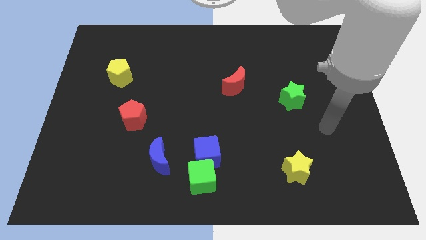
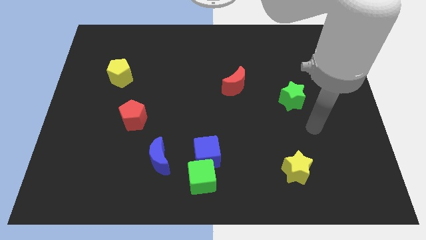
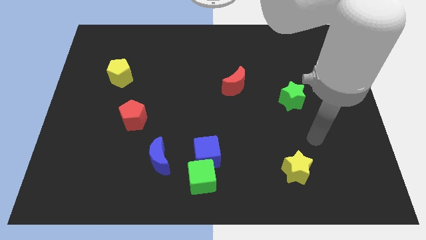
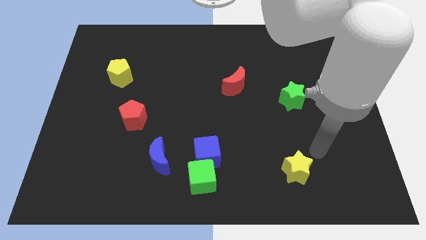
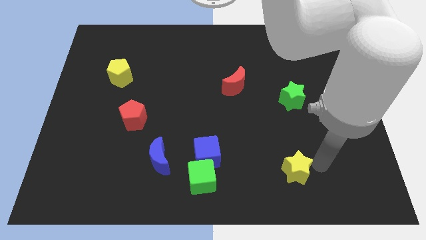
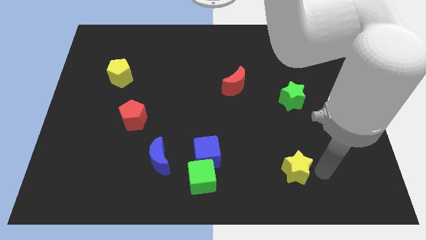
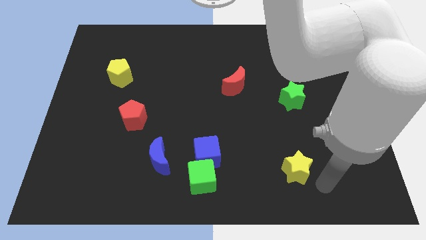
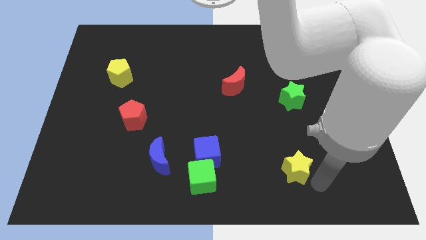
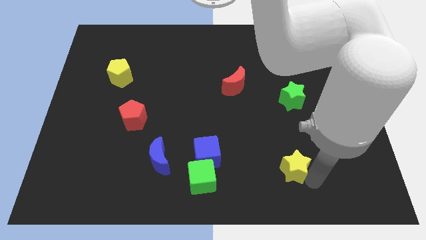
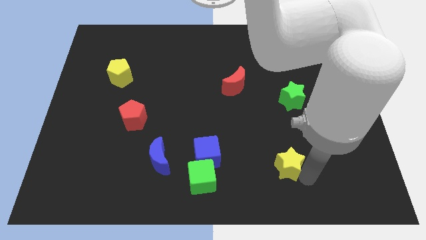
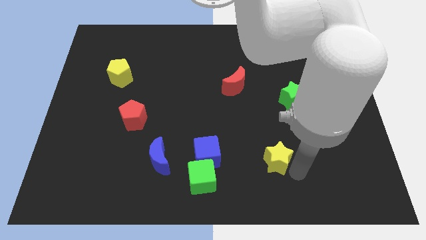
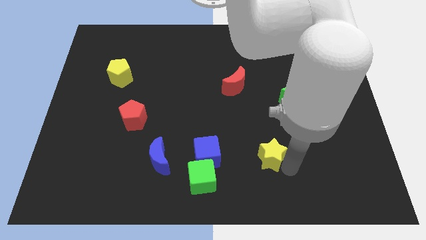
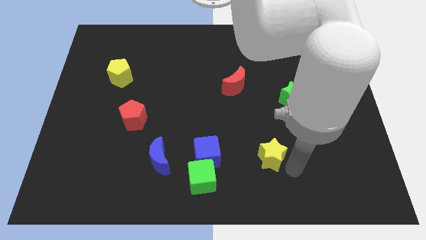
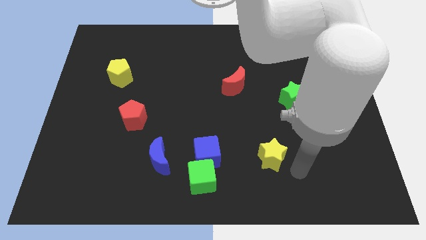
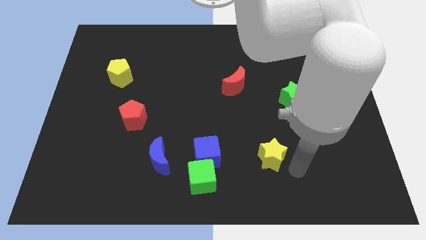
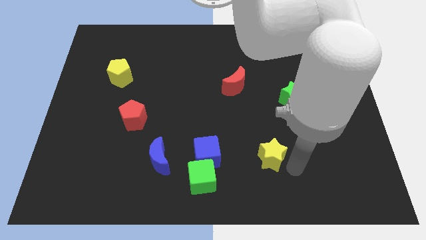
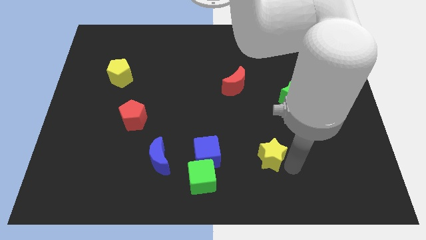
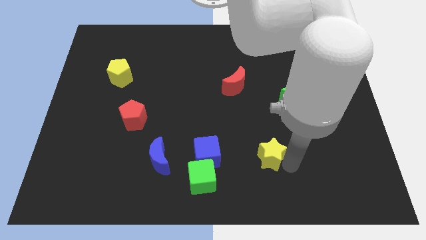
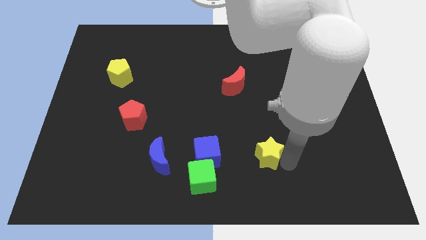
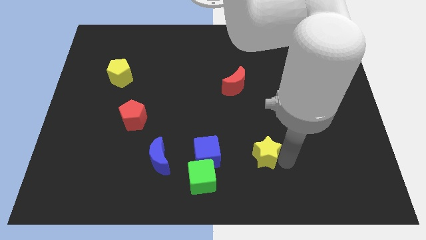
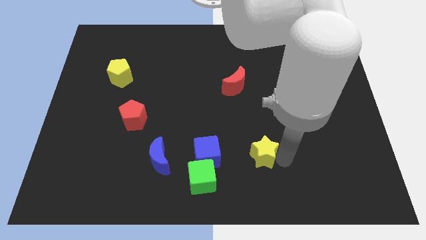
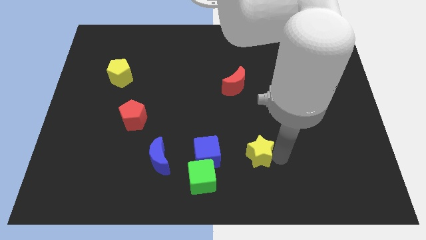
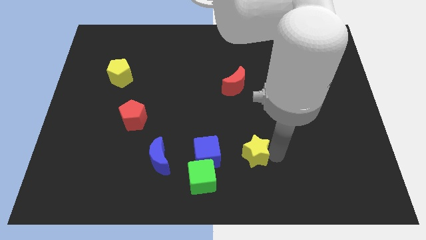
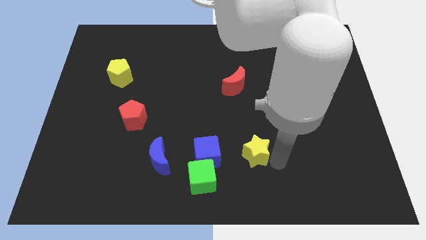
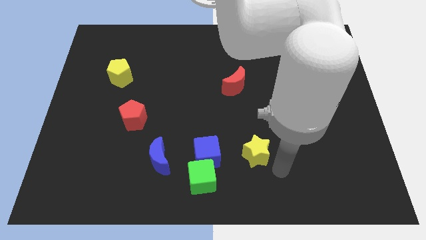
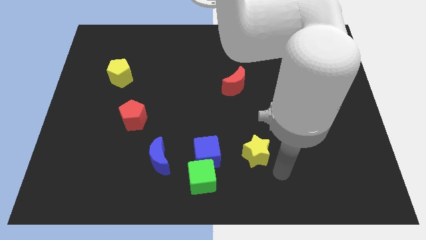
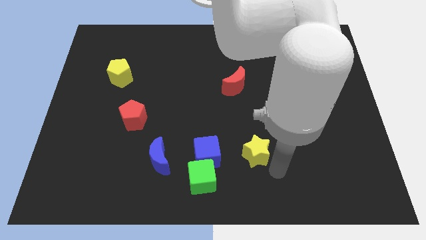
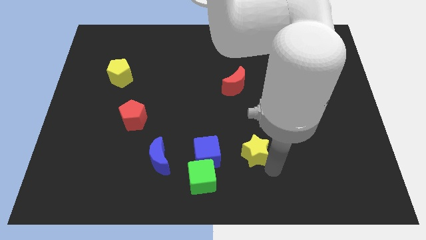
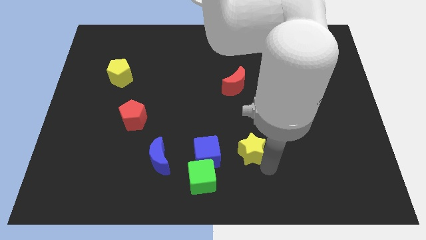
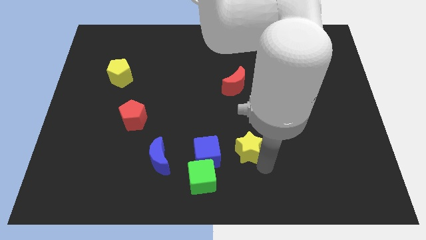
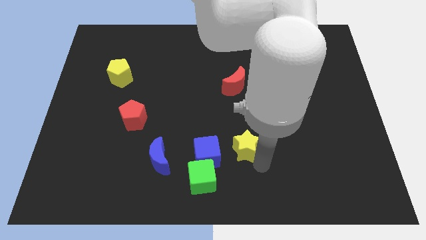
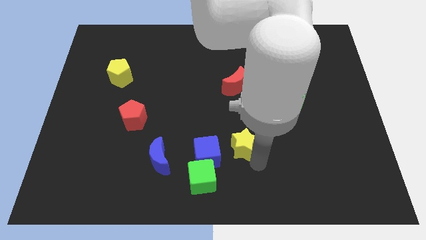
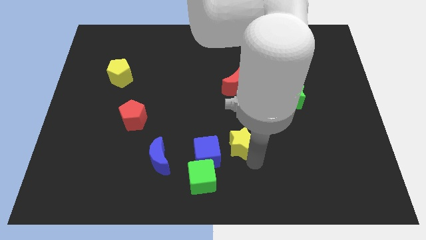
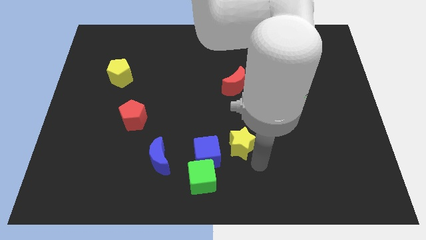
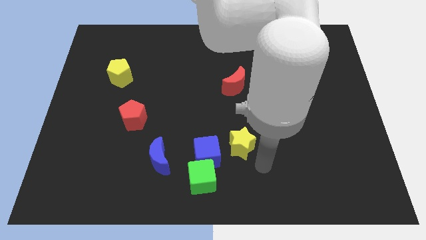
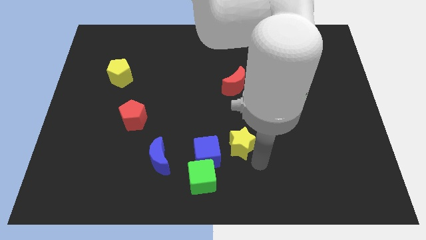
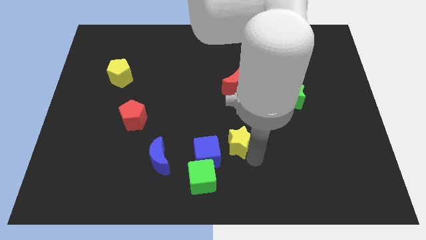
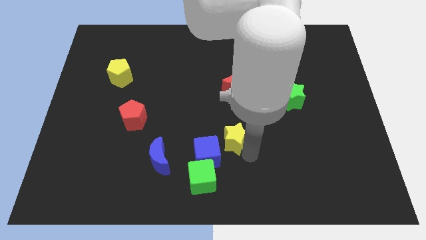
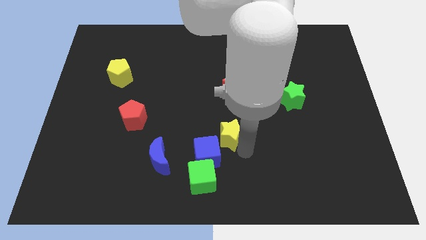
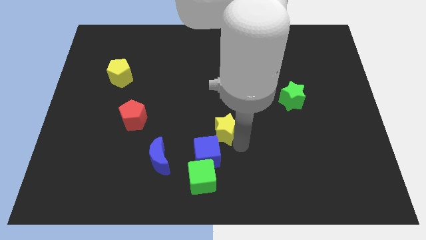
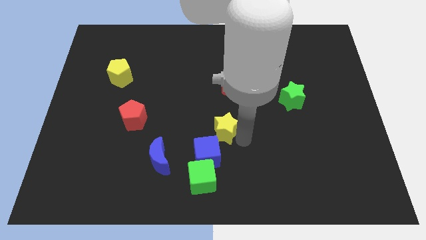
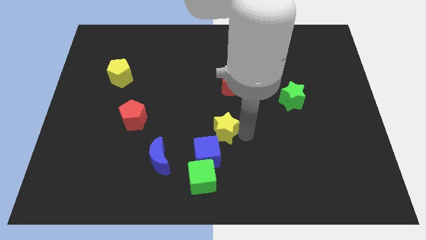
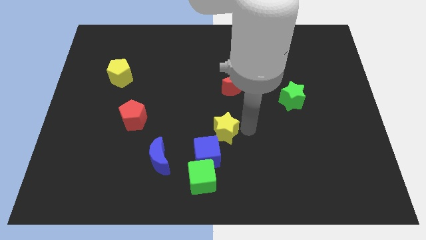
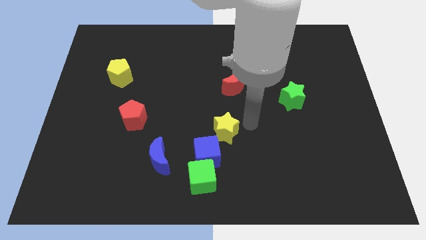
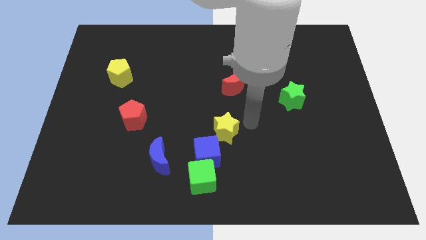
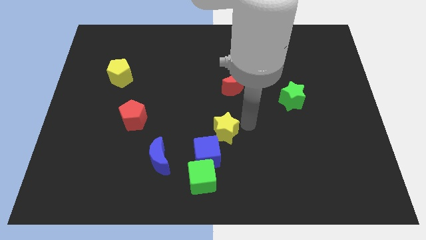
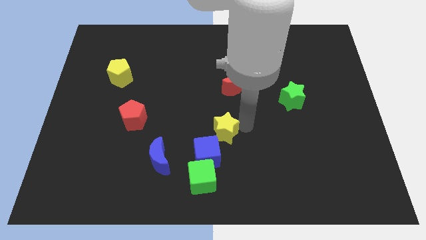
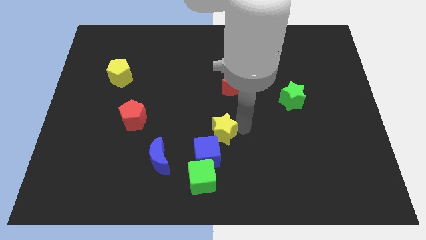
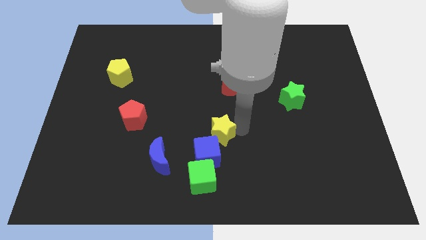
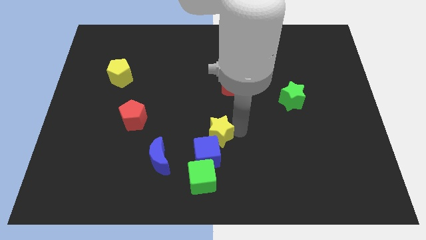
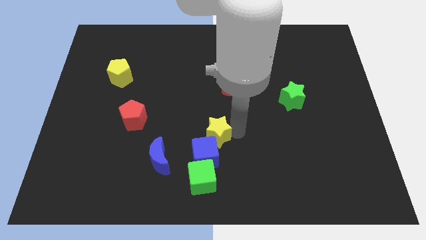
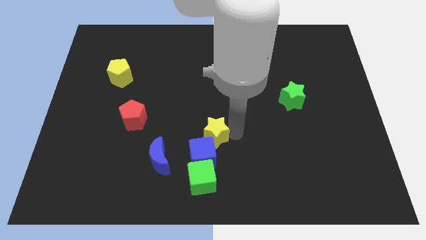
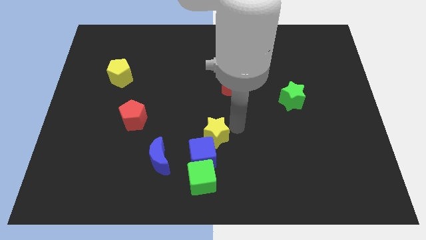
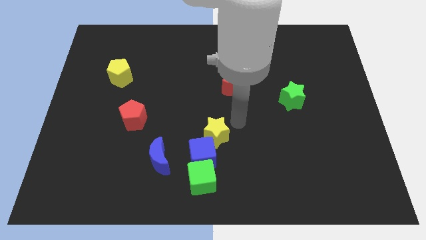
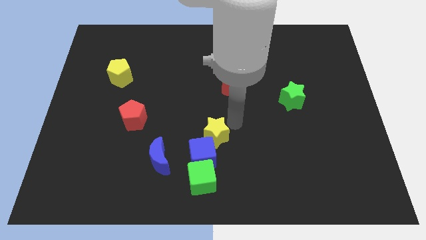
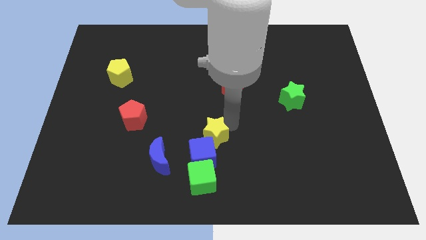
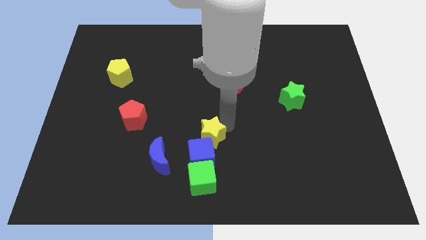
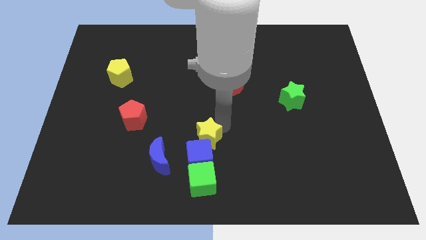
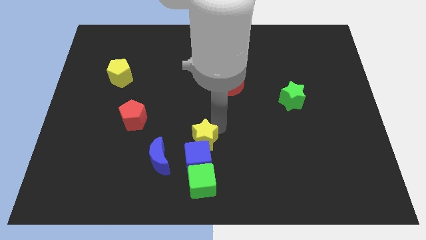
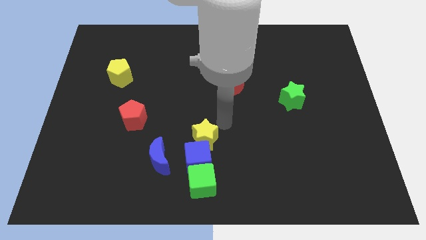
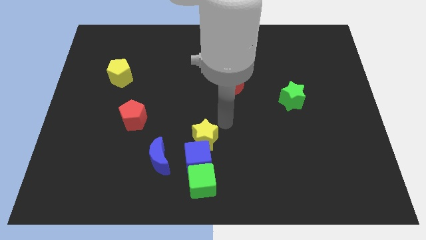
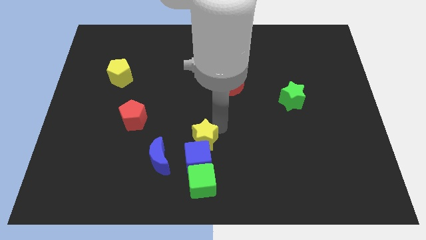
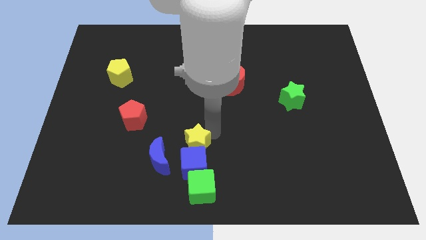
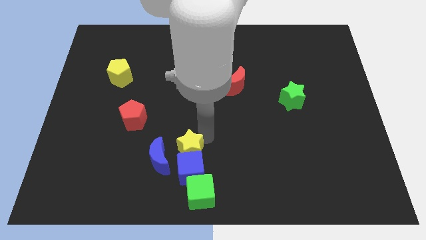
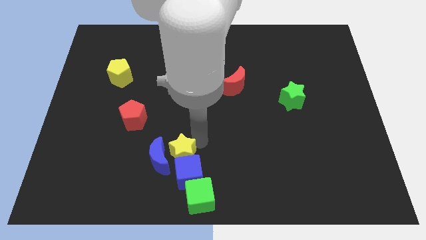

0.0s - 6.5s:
slide the yellow star to the top left of the green cube

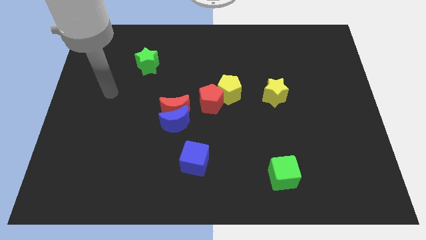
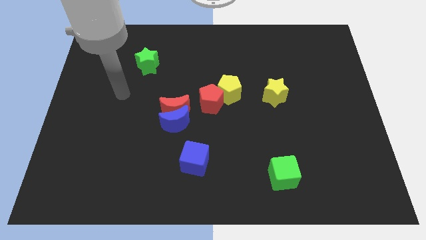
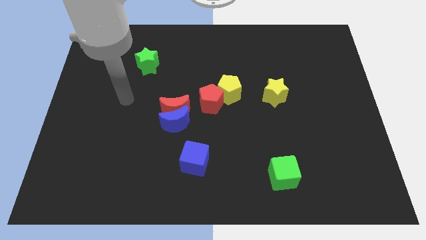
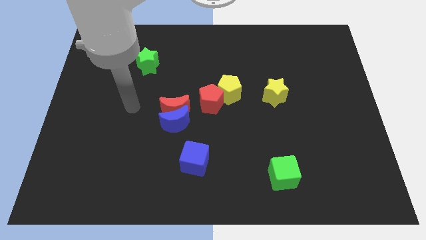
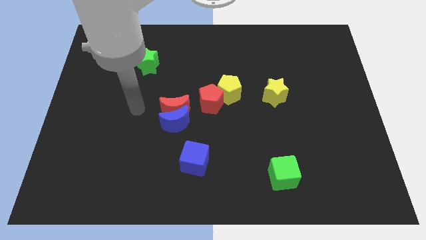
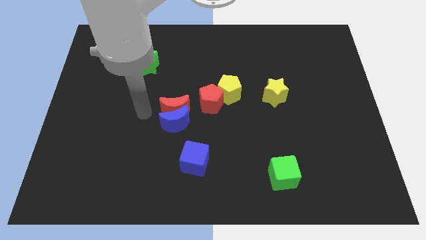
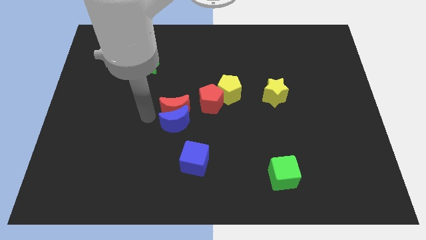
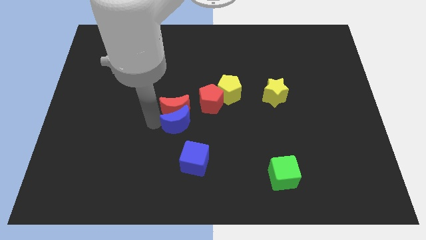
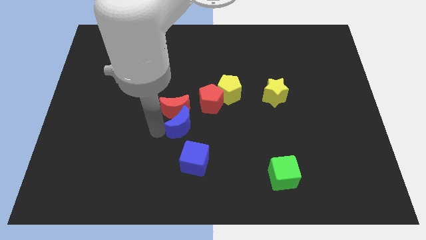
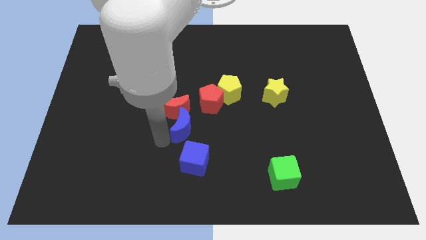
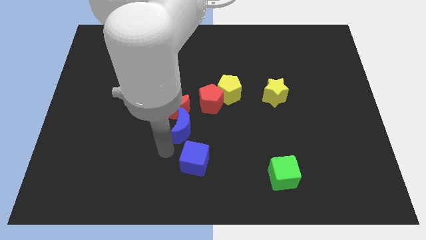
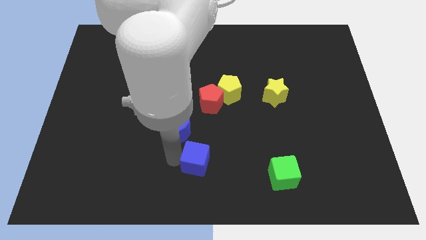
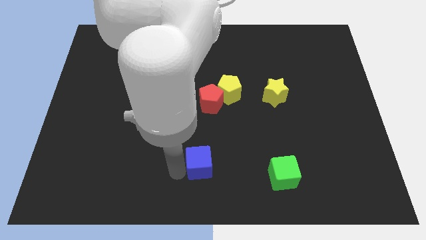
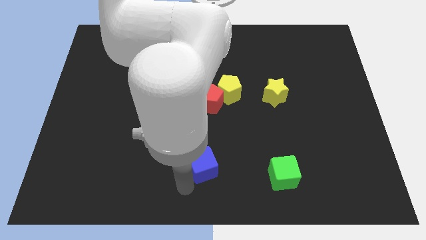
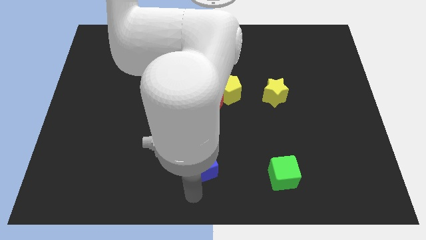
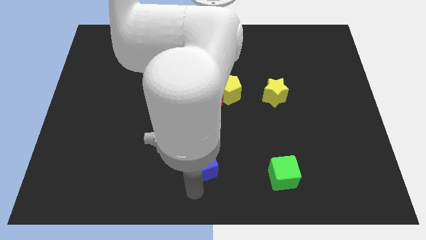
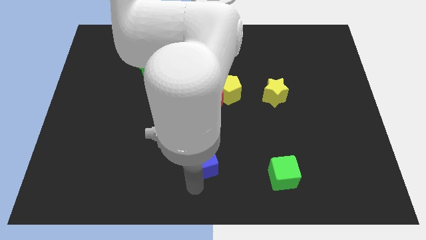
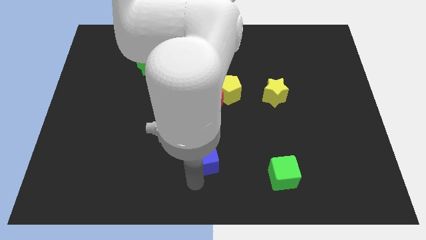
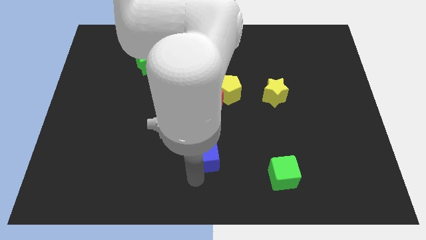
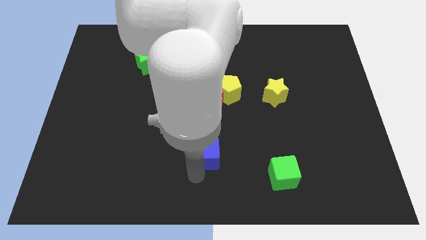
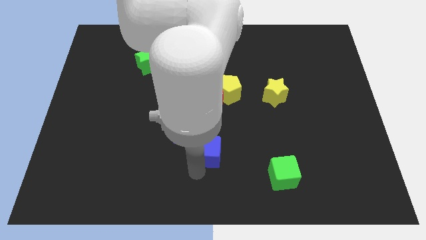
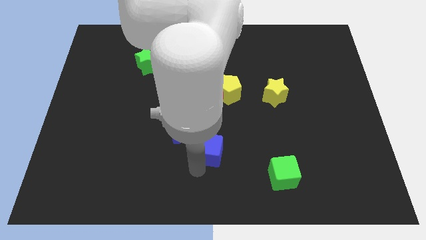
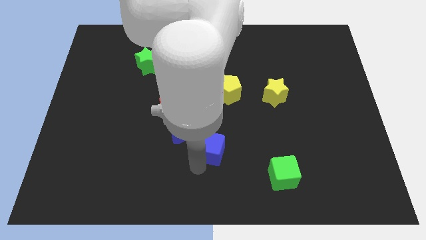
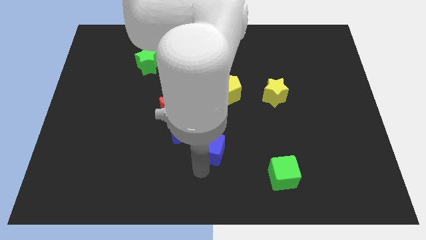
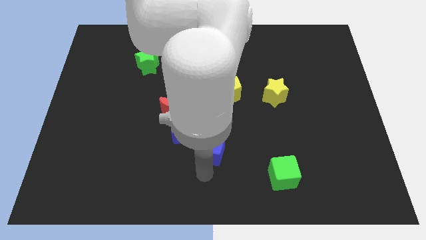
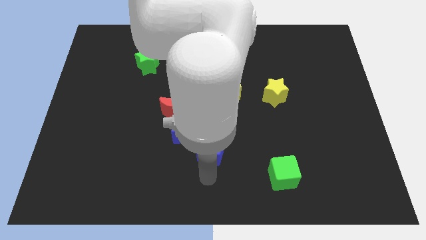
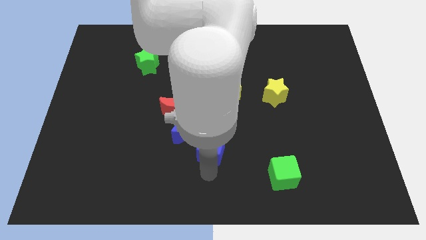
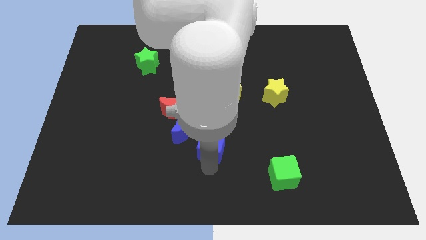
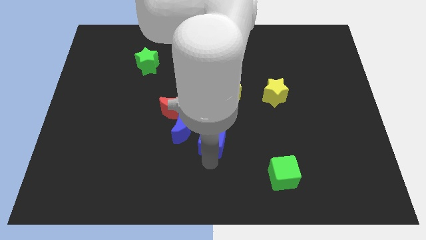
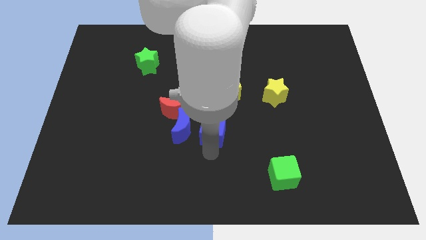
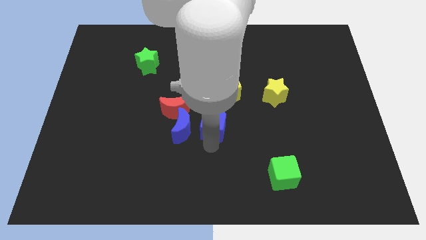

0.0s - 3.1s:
put the blue cube just right of the red moon
